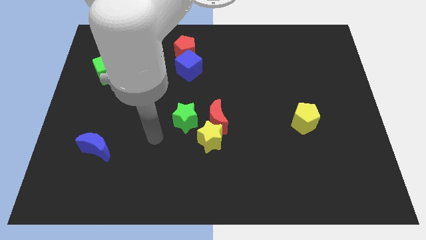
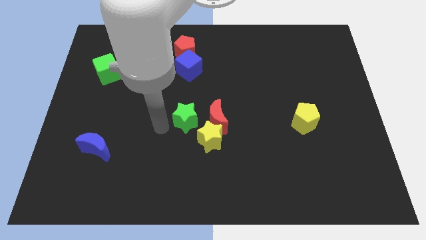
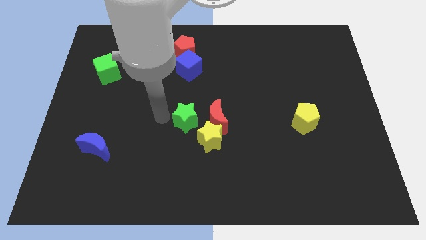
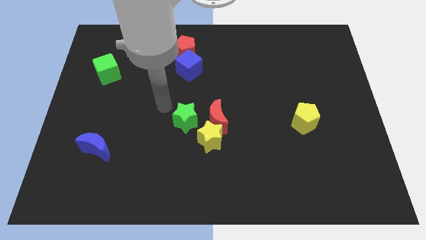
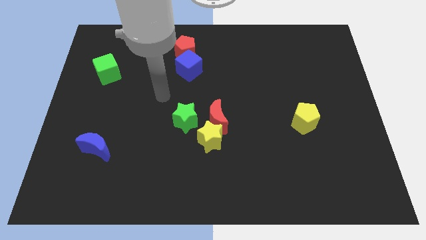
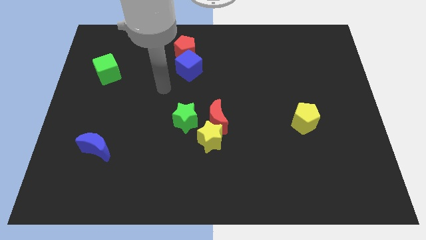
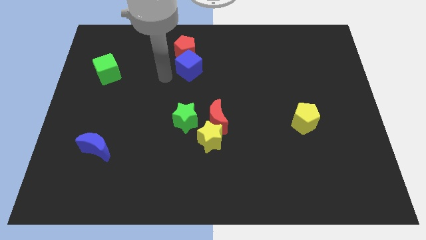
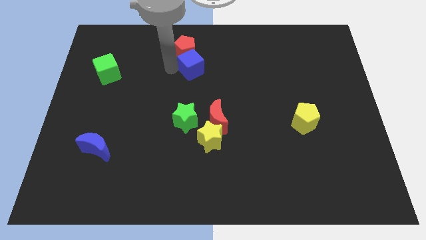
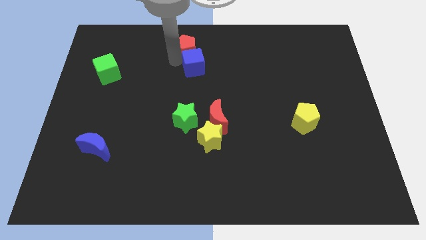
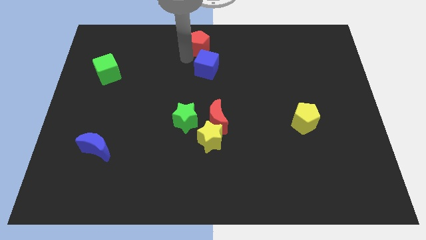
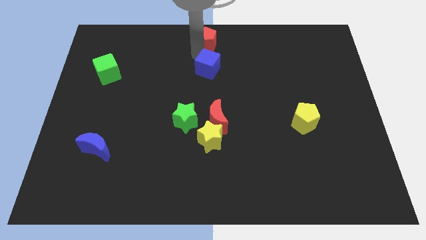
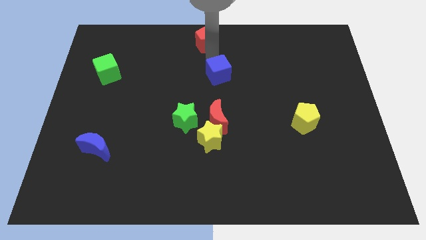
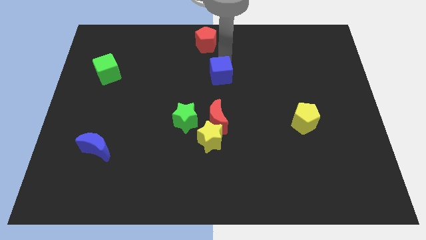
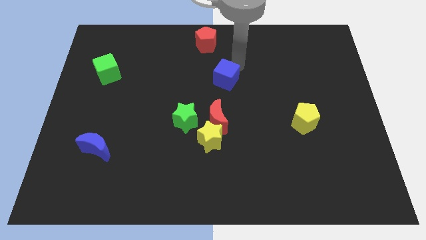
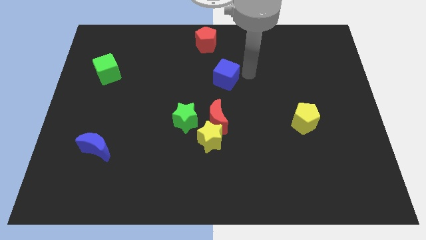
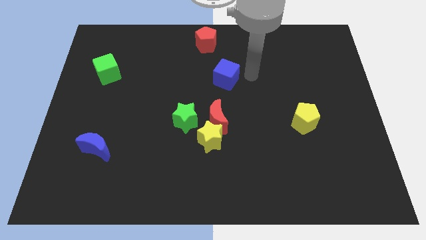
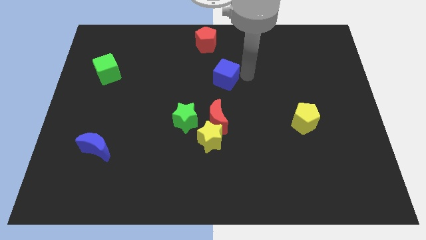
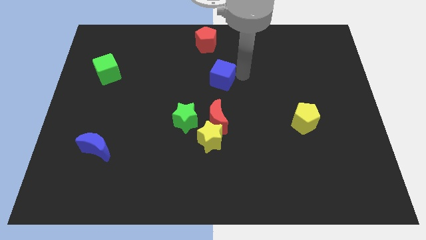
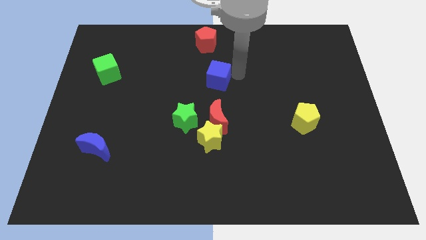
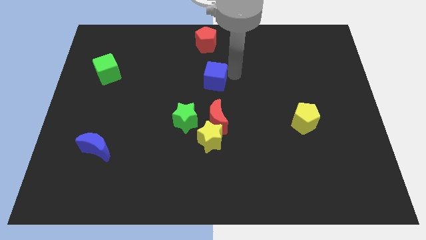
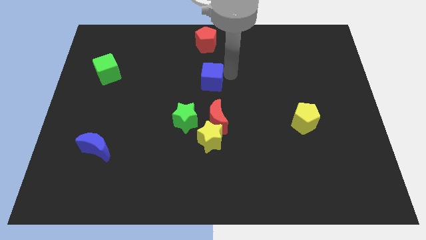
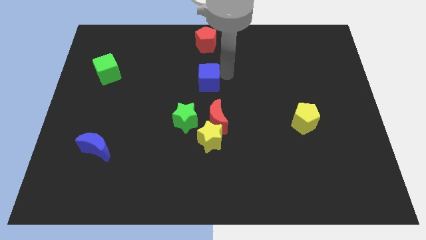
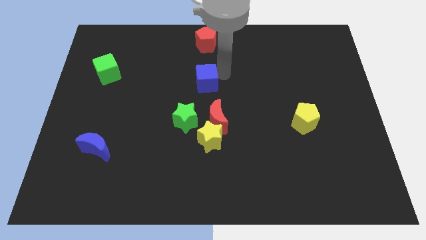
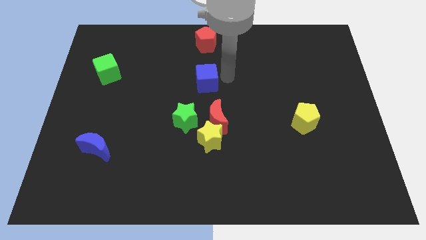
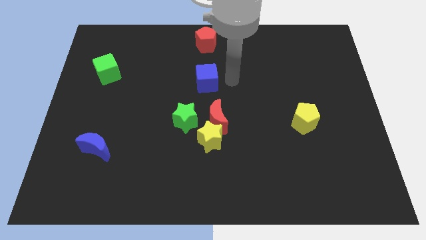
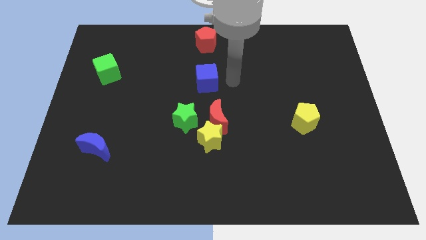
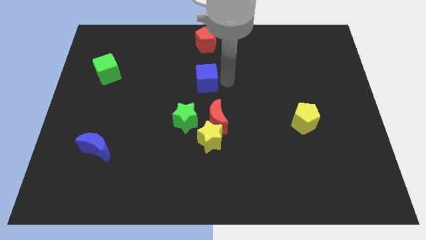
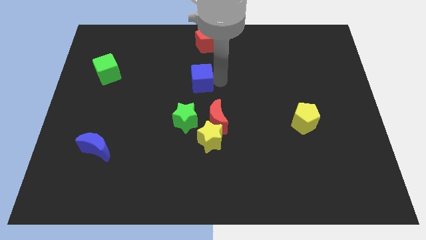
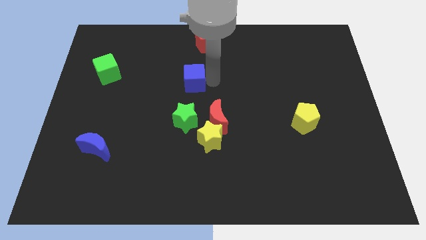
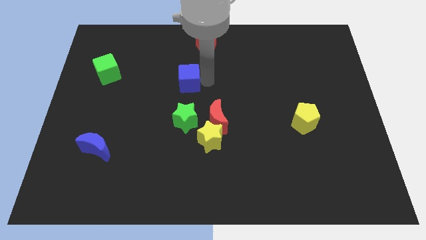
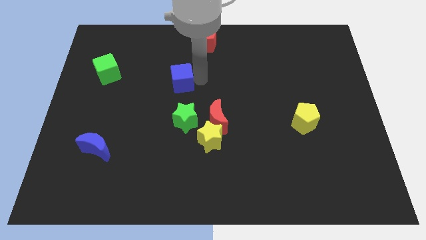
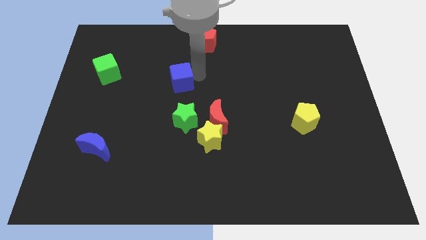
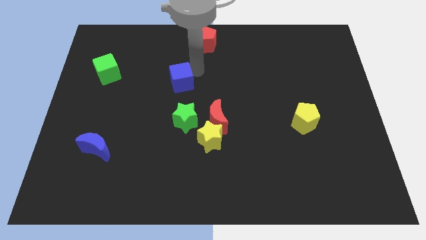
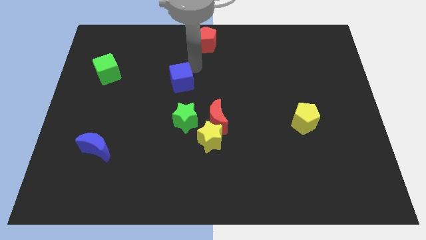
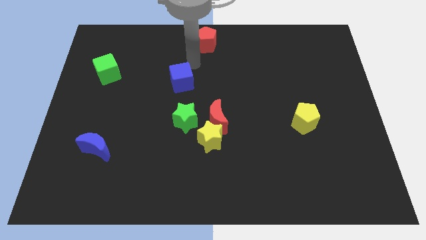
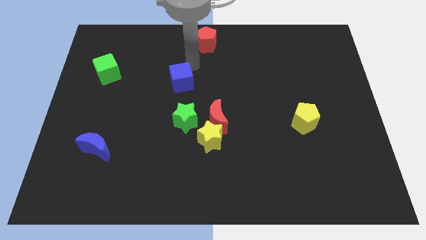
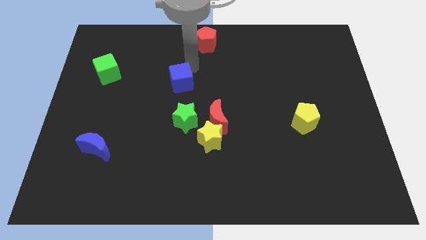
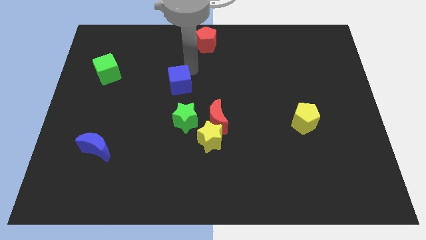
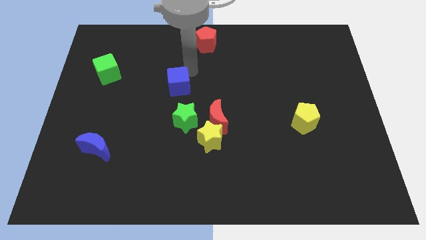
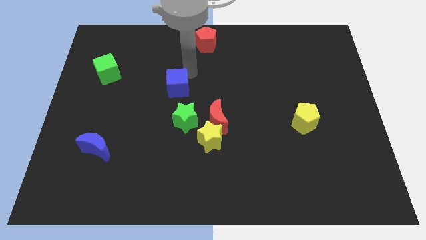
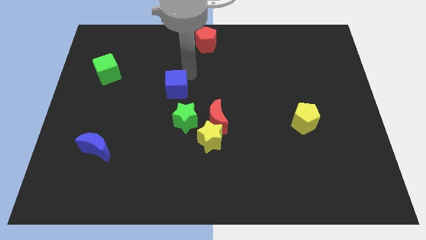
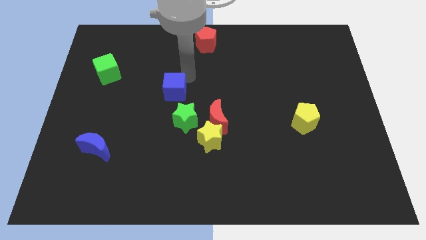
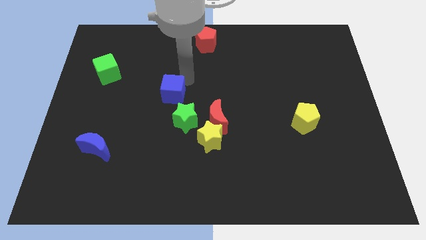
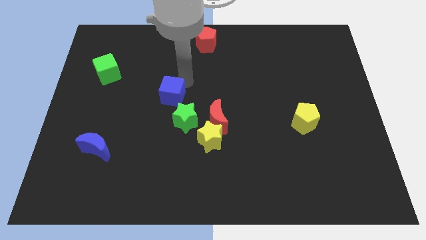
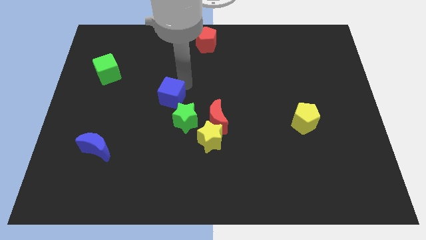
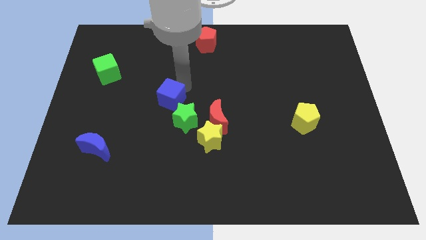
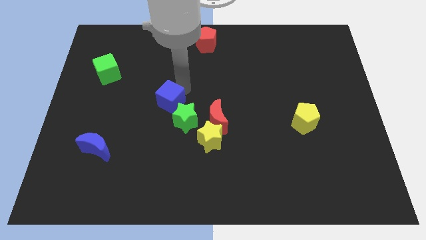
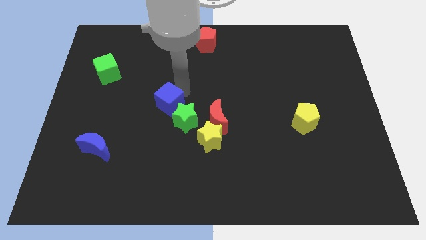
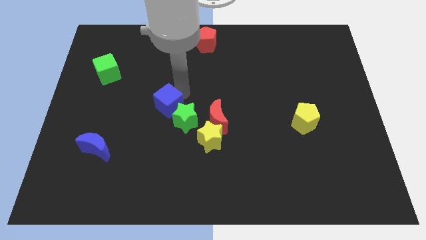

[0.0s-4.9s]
slide the blue cube to the left side of the green star

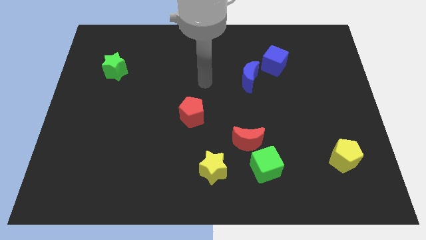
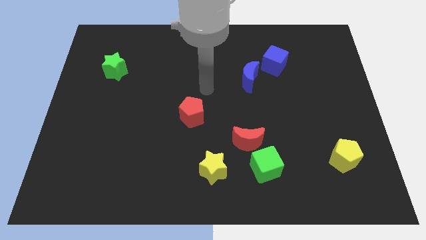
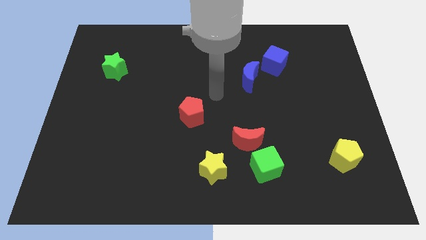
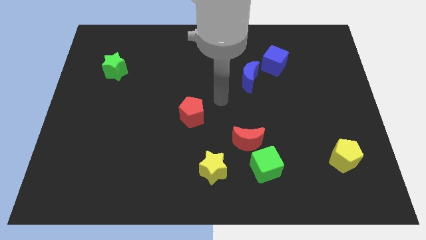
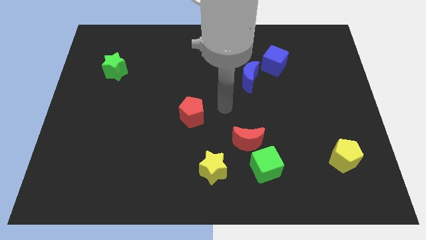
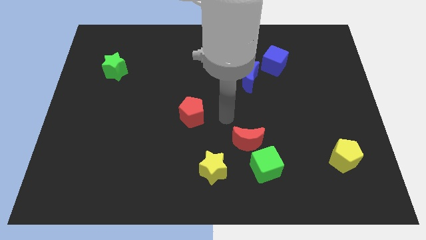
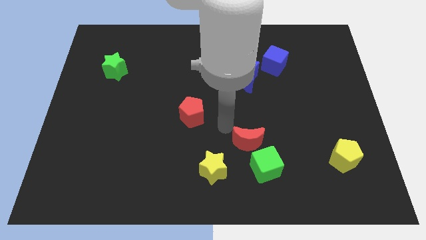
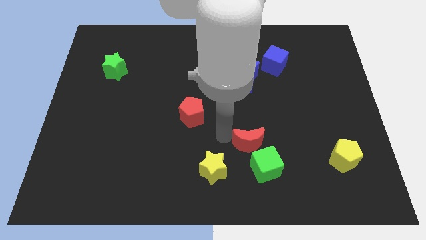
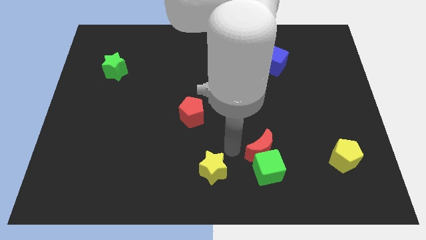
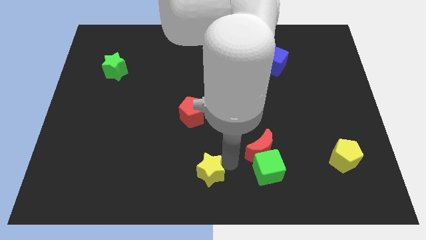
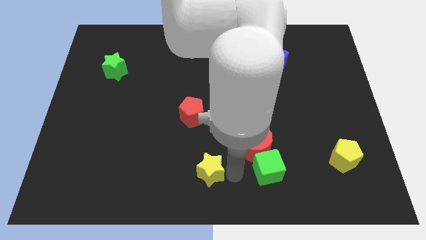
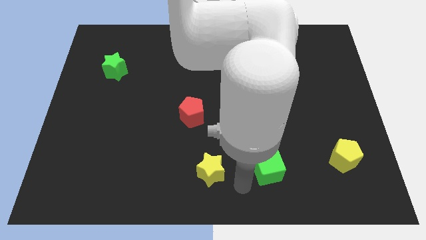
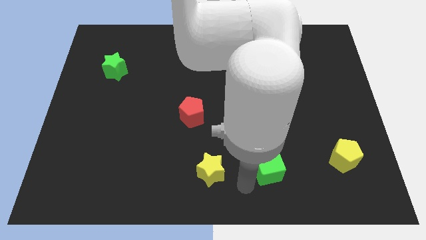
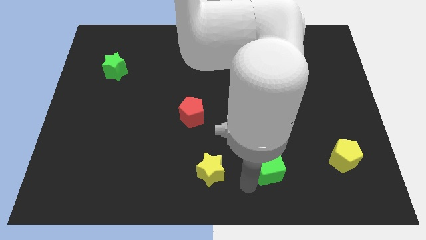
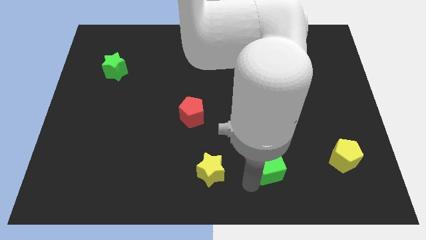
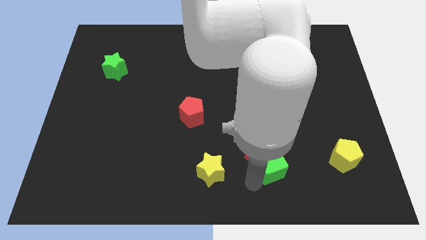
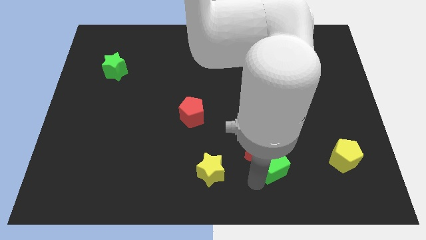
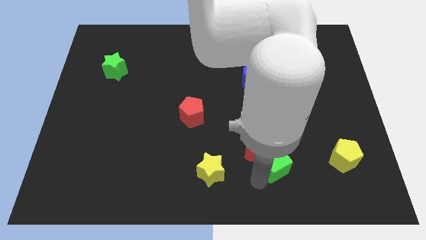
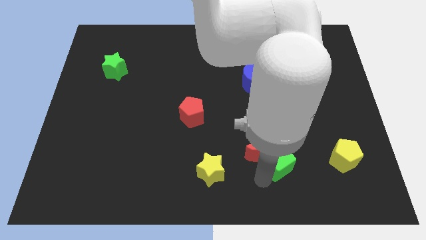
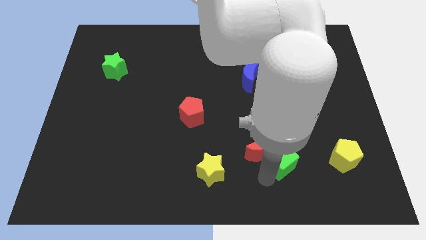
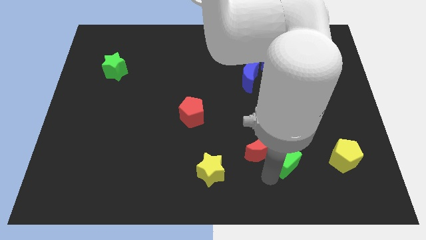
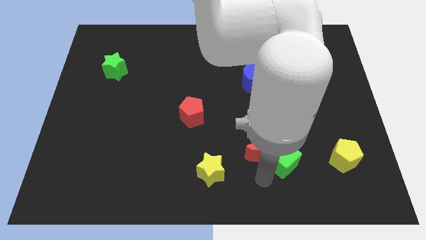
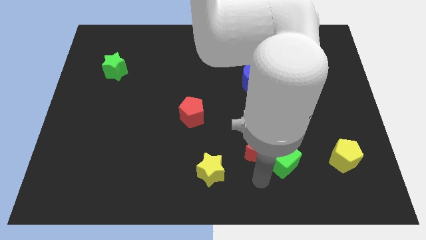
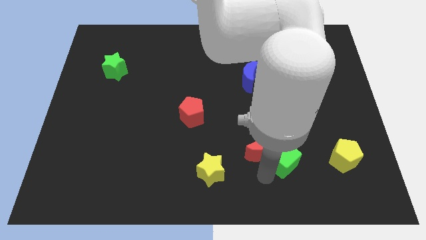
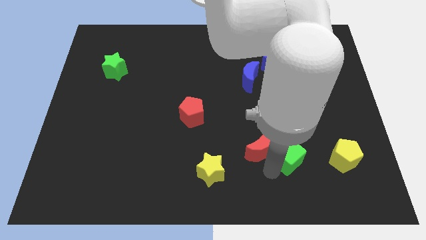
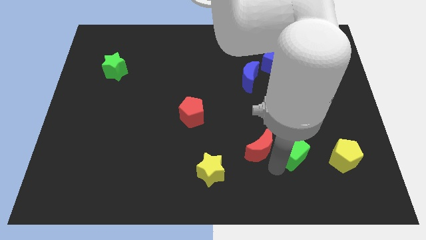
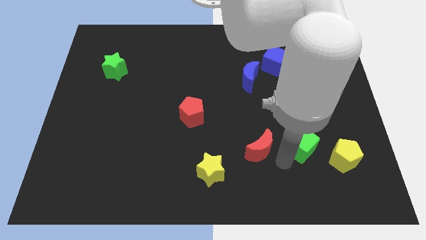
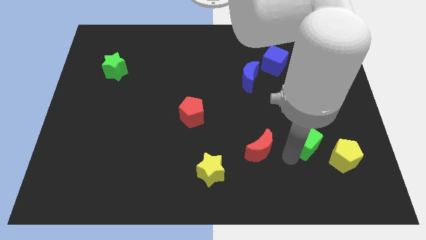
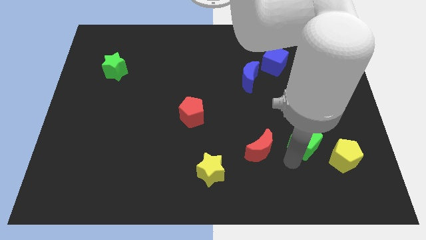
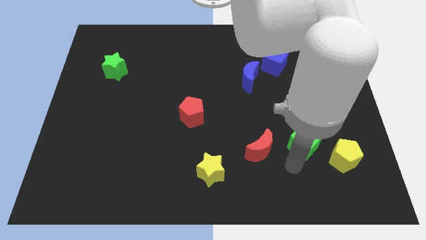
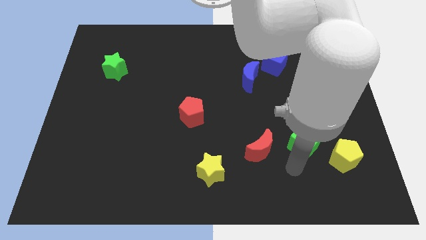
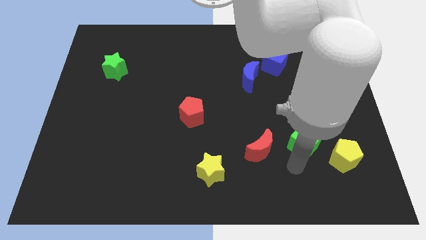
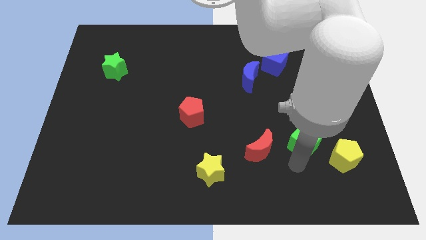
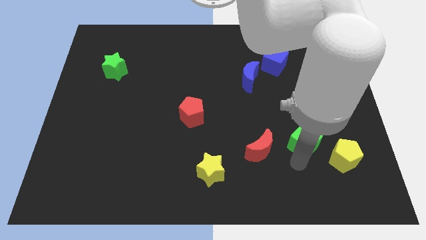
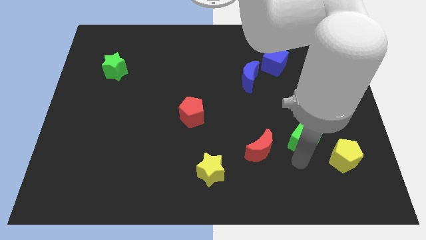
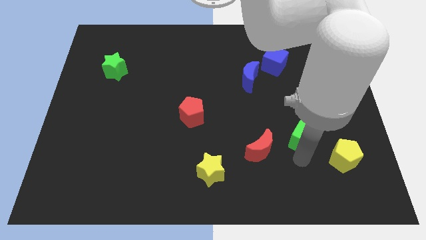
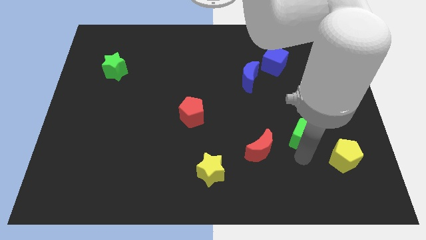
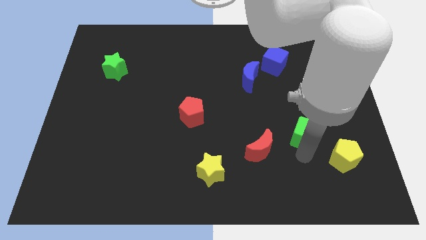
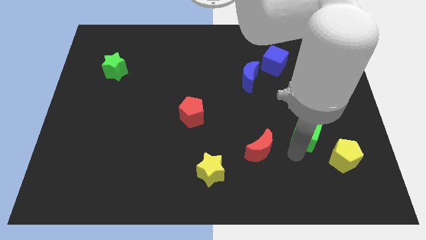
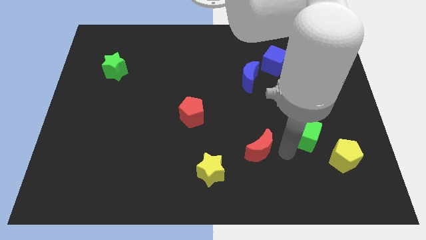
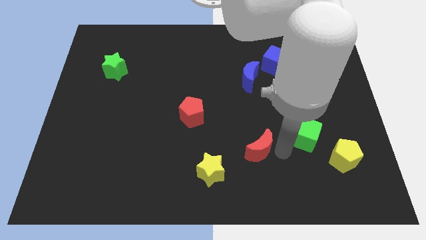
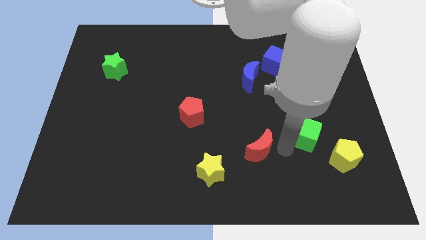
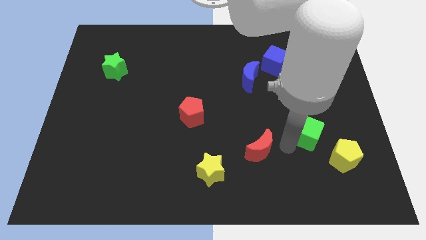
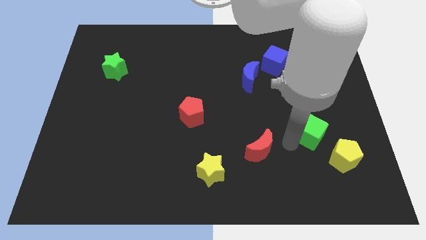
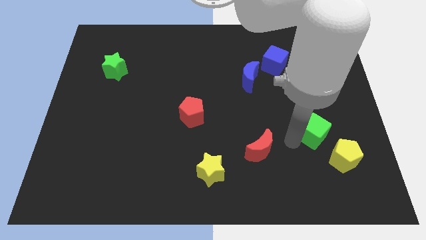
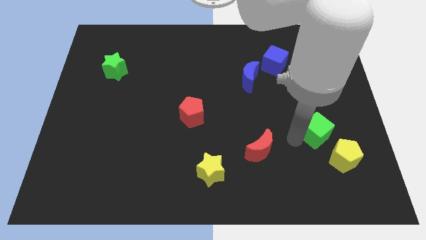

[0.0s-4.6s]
push the green cube to the top of the yellow pentagon
